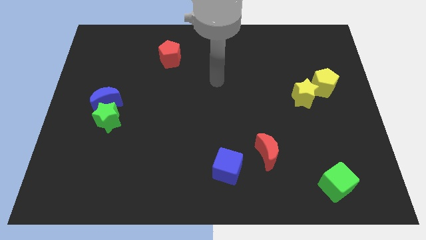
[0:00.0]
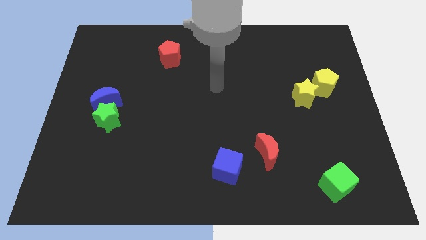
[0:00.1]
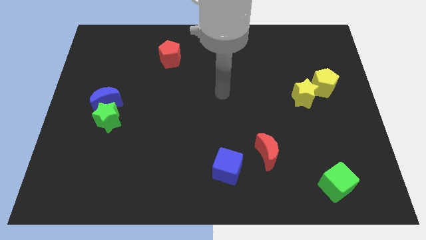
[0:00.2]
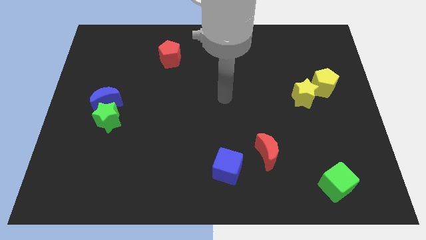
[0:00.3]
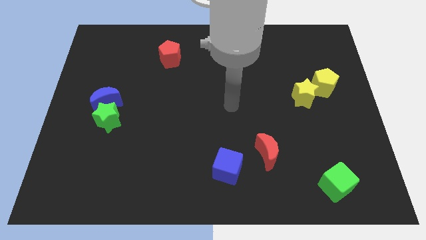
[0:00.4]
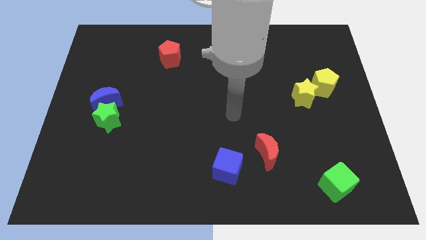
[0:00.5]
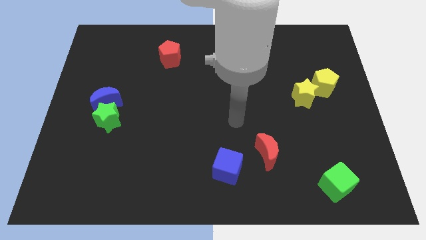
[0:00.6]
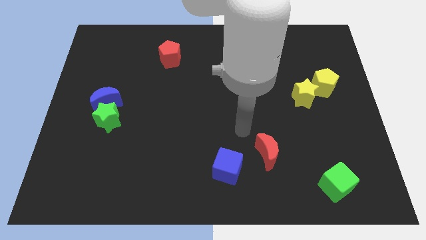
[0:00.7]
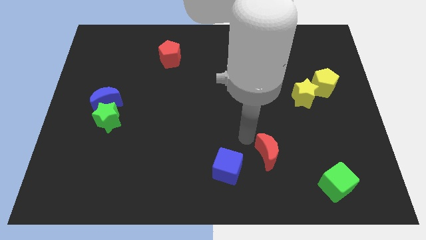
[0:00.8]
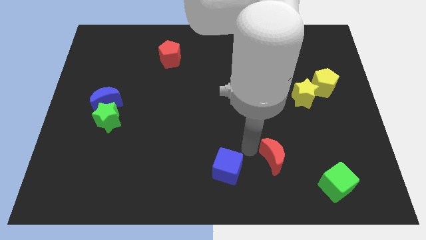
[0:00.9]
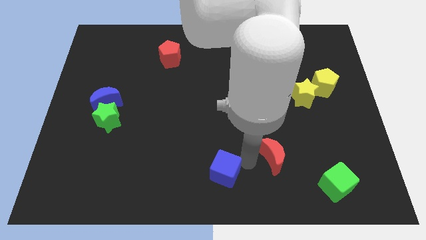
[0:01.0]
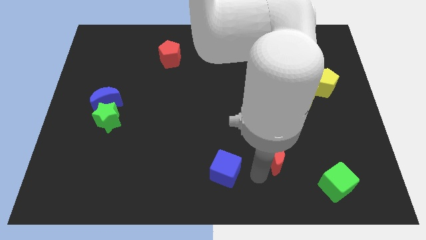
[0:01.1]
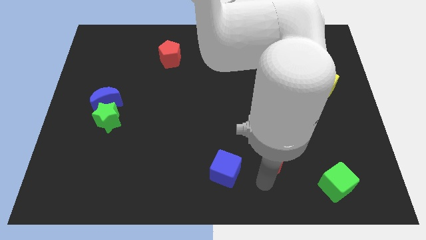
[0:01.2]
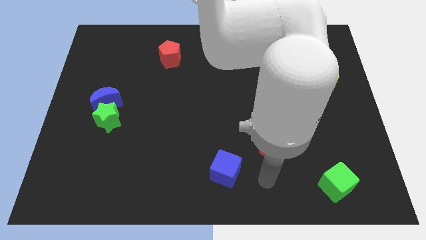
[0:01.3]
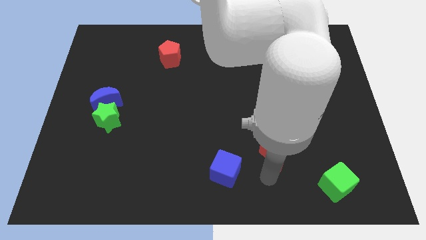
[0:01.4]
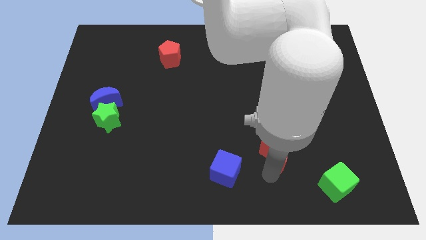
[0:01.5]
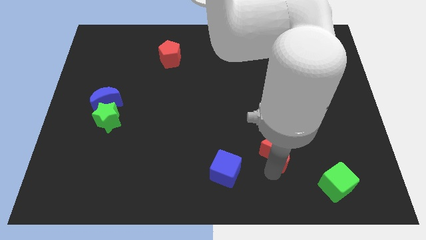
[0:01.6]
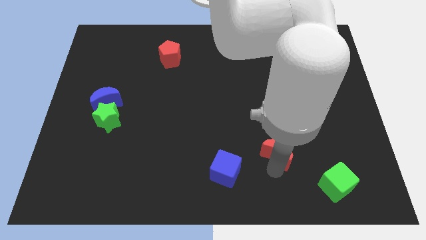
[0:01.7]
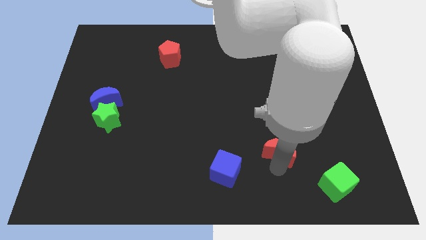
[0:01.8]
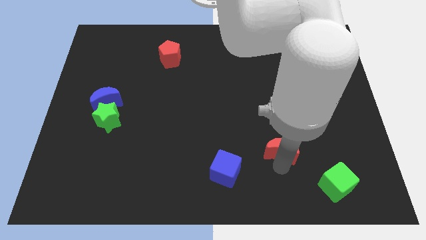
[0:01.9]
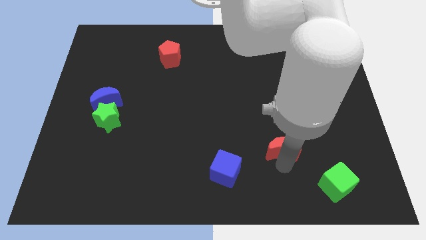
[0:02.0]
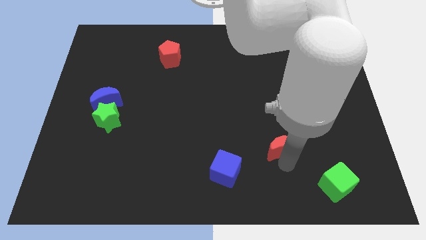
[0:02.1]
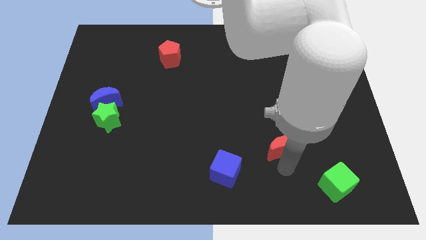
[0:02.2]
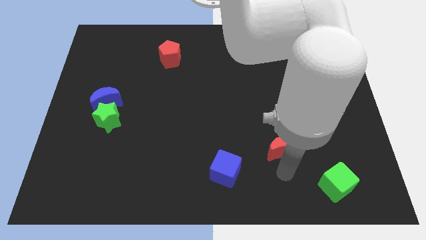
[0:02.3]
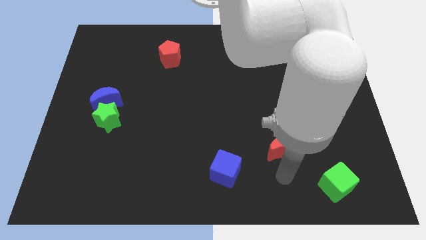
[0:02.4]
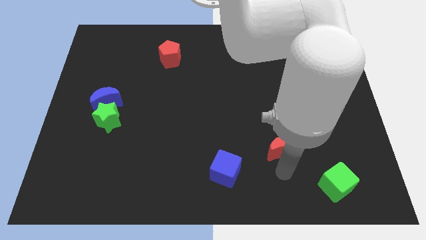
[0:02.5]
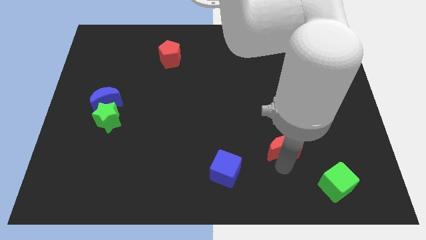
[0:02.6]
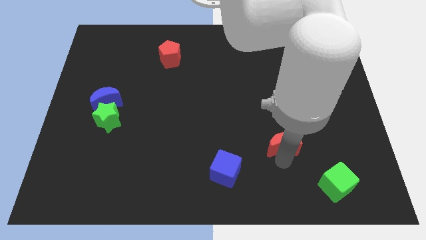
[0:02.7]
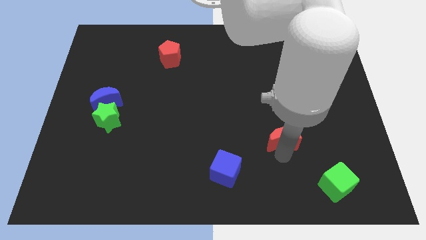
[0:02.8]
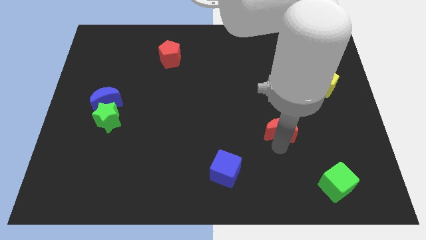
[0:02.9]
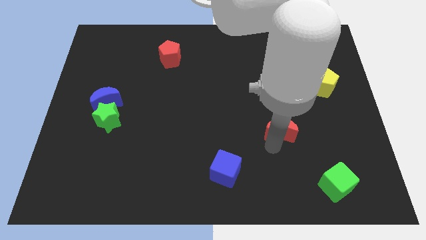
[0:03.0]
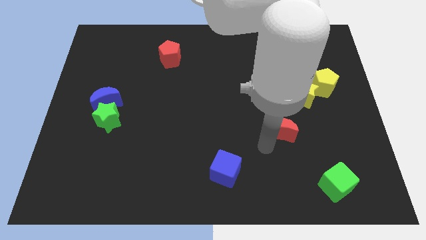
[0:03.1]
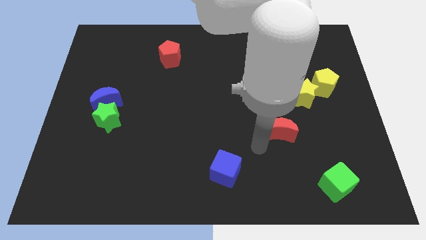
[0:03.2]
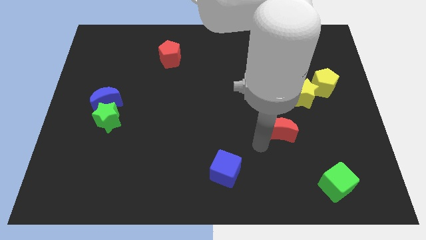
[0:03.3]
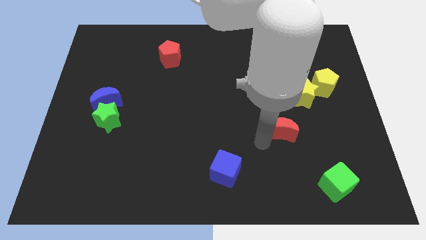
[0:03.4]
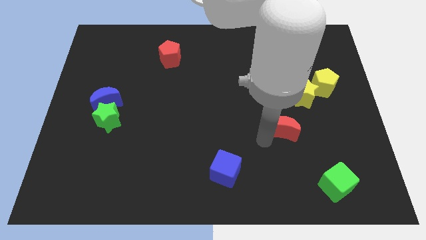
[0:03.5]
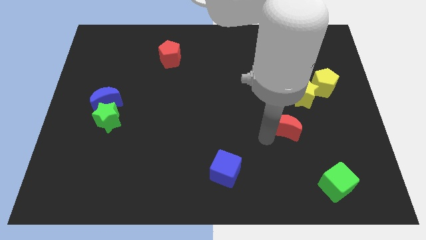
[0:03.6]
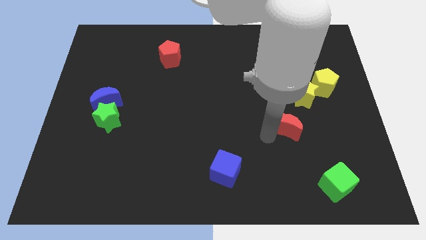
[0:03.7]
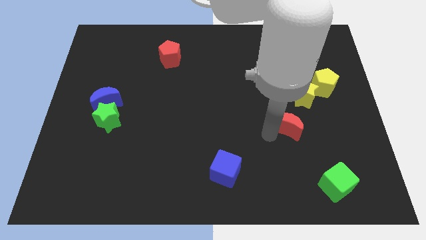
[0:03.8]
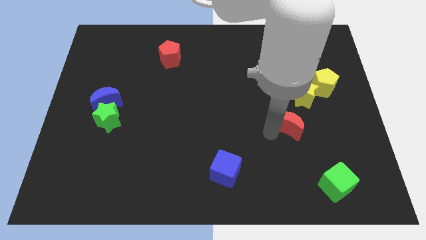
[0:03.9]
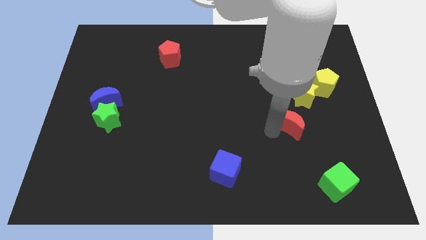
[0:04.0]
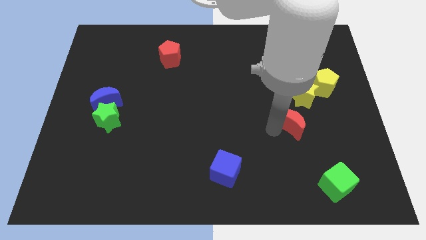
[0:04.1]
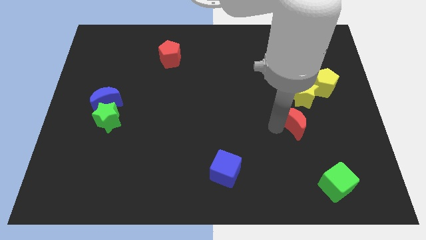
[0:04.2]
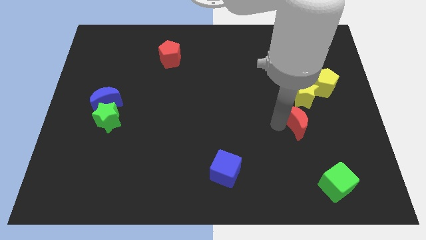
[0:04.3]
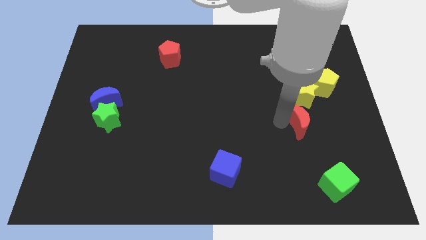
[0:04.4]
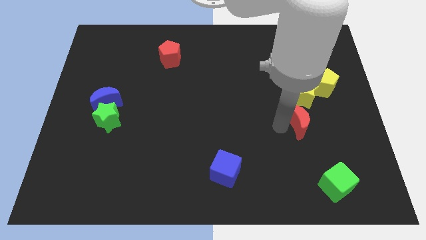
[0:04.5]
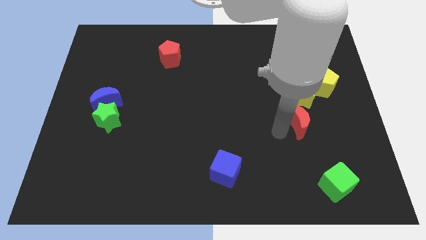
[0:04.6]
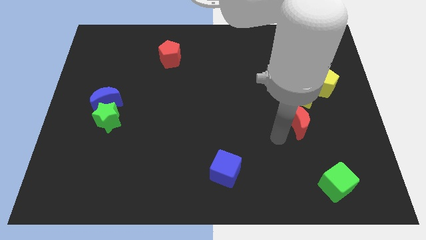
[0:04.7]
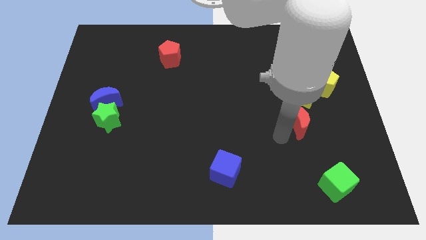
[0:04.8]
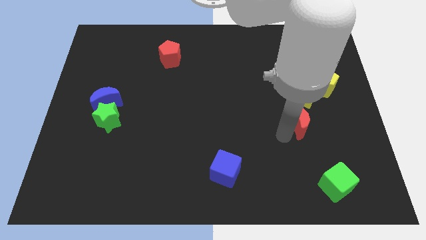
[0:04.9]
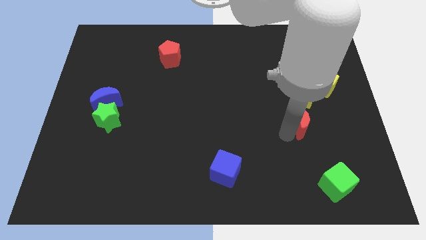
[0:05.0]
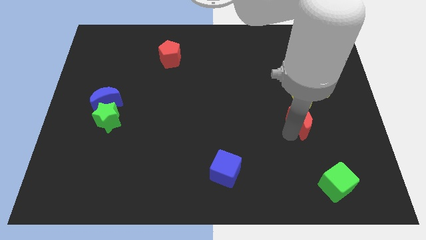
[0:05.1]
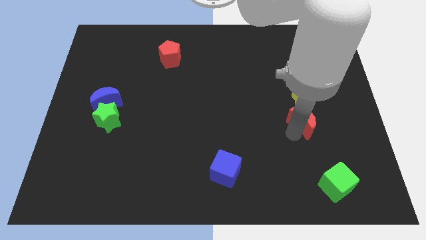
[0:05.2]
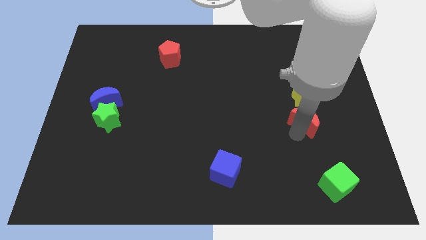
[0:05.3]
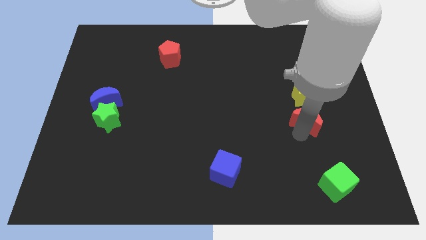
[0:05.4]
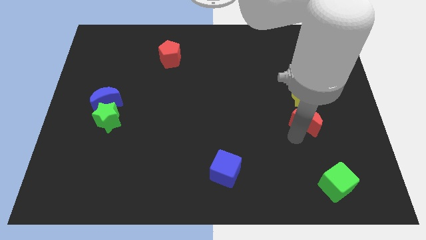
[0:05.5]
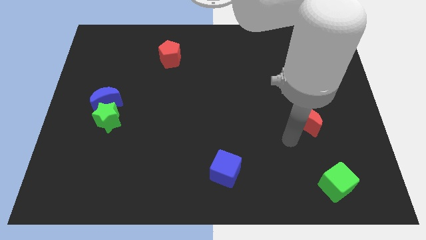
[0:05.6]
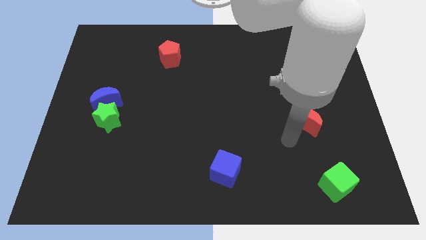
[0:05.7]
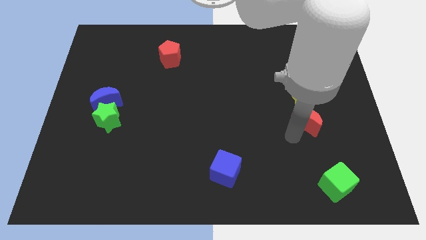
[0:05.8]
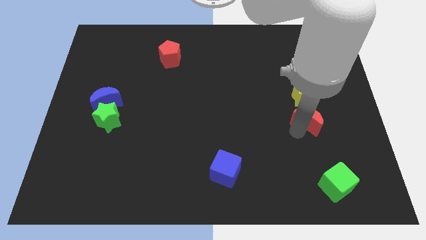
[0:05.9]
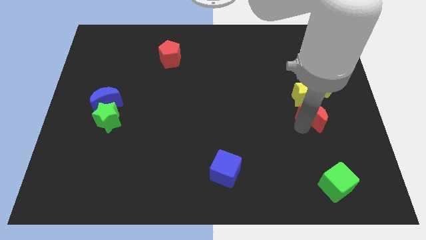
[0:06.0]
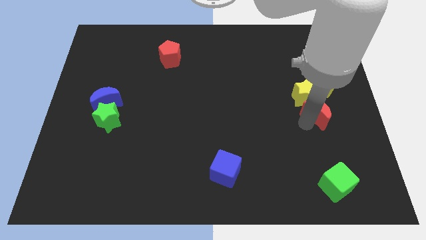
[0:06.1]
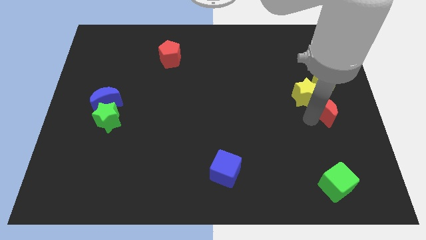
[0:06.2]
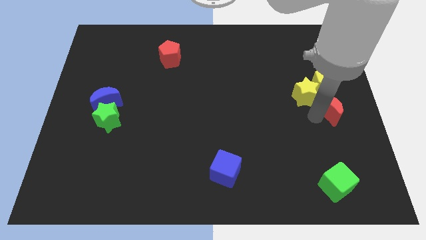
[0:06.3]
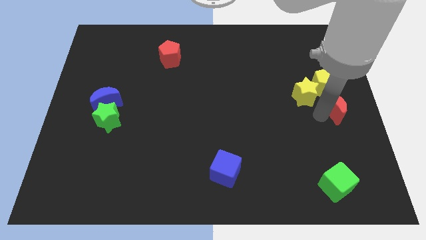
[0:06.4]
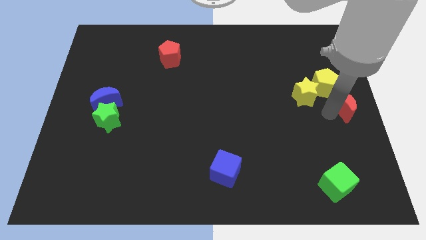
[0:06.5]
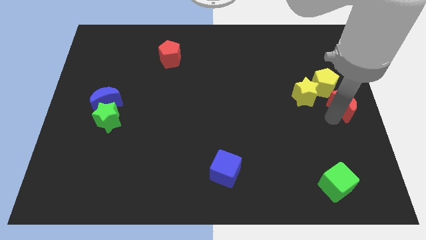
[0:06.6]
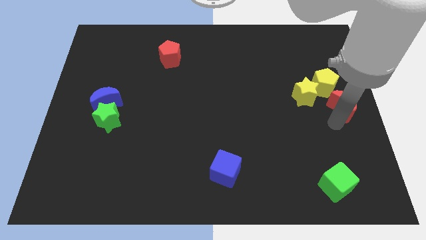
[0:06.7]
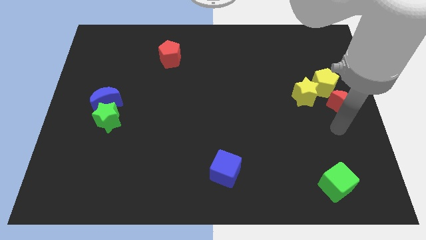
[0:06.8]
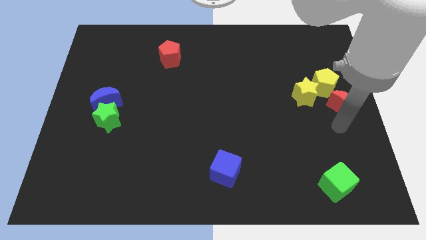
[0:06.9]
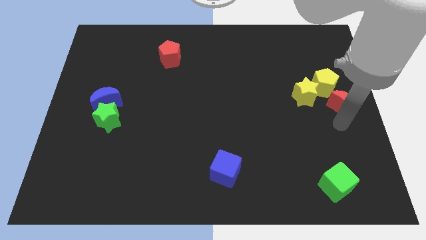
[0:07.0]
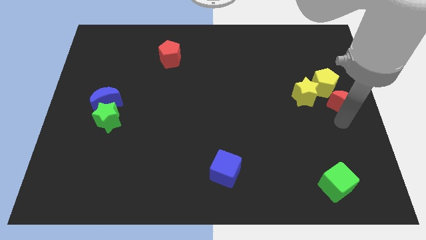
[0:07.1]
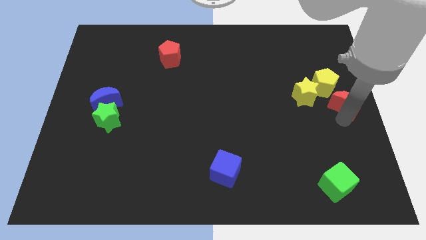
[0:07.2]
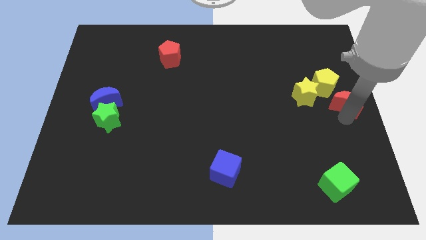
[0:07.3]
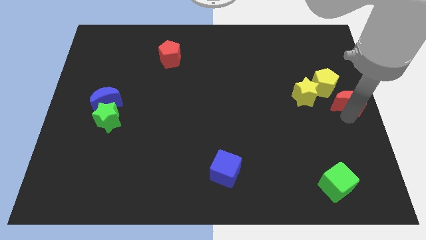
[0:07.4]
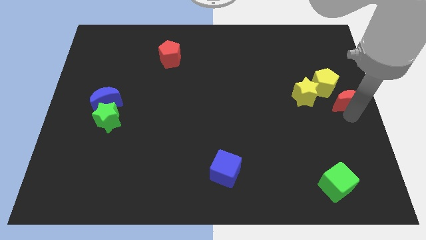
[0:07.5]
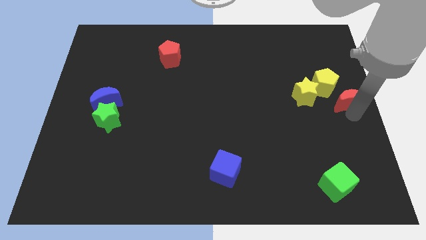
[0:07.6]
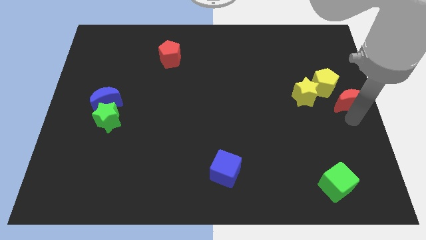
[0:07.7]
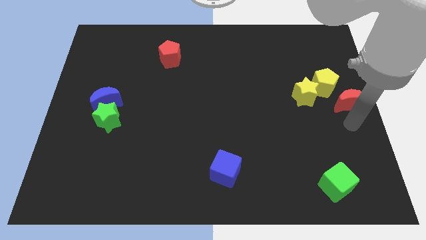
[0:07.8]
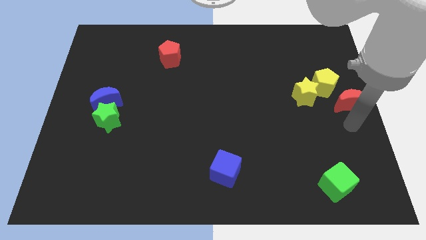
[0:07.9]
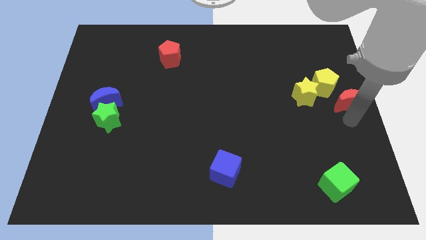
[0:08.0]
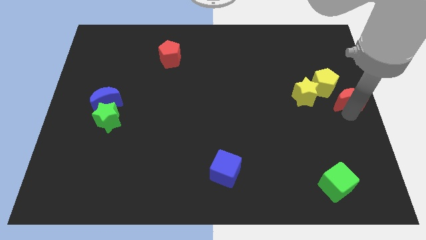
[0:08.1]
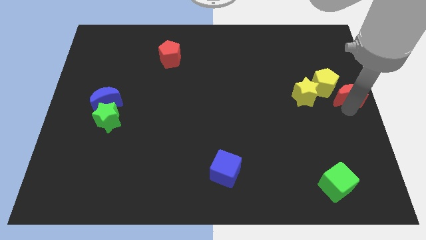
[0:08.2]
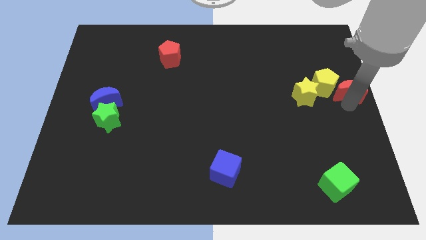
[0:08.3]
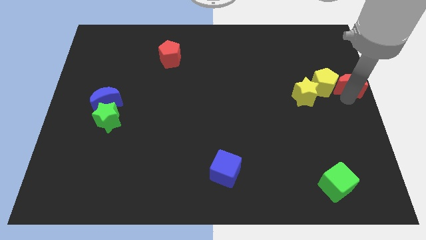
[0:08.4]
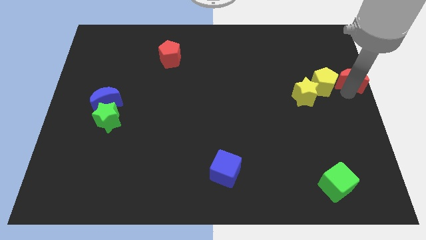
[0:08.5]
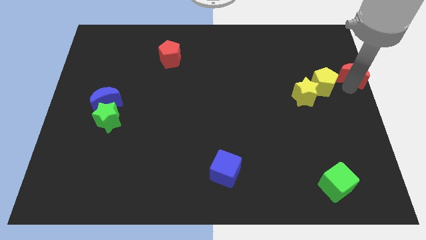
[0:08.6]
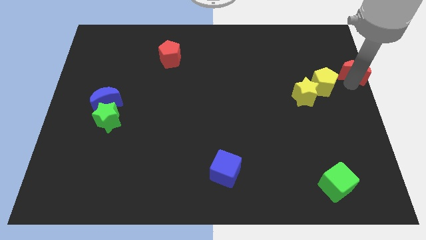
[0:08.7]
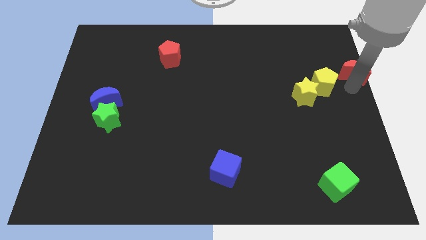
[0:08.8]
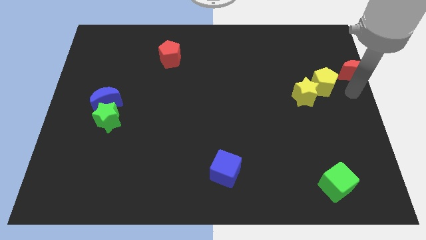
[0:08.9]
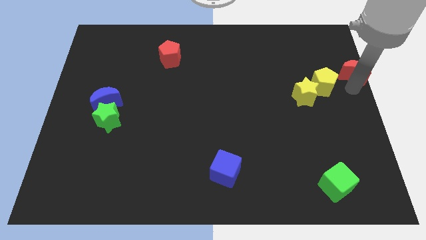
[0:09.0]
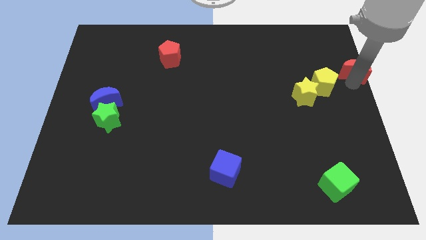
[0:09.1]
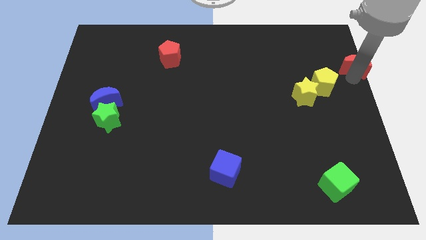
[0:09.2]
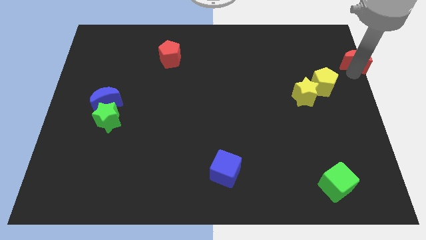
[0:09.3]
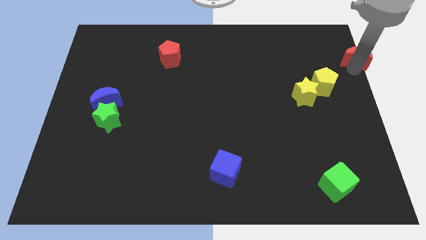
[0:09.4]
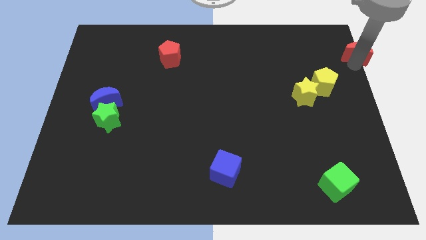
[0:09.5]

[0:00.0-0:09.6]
push the red moon to the top right corner
